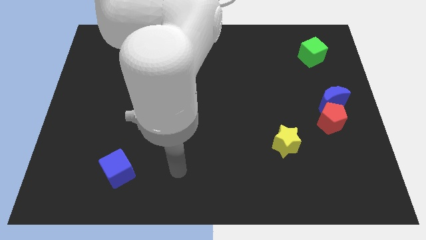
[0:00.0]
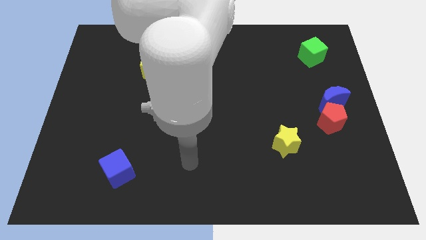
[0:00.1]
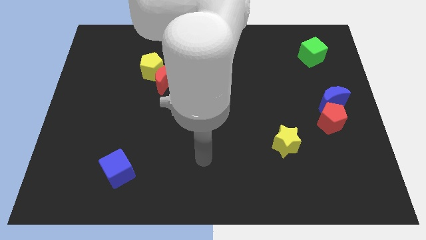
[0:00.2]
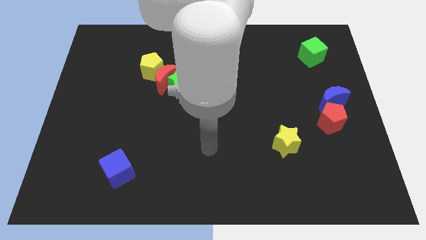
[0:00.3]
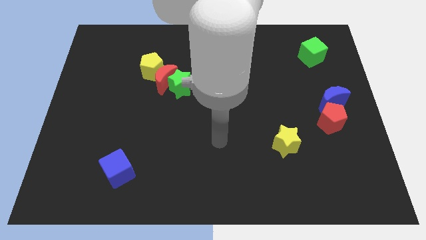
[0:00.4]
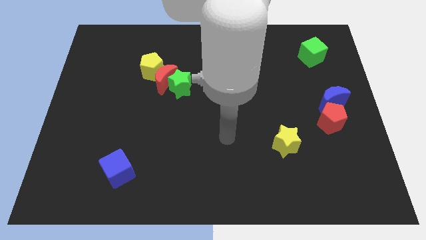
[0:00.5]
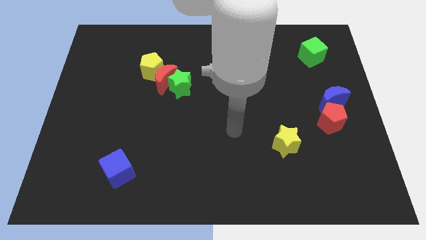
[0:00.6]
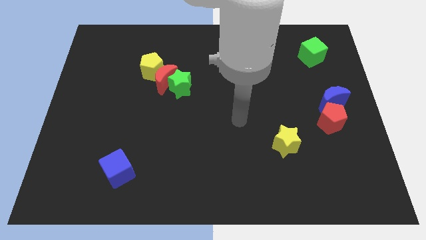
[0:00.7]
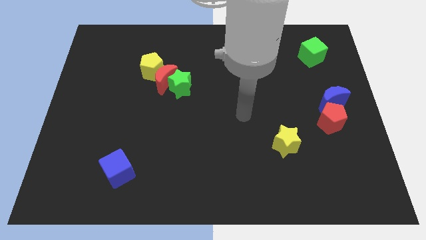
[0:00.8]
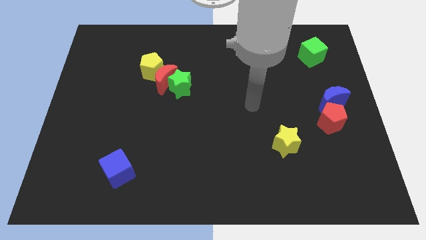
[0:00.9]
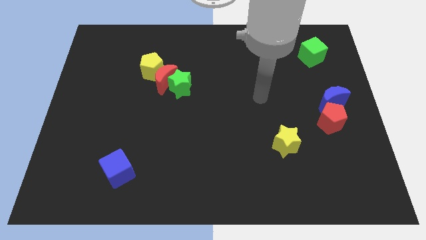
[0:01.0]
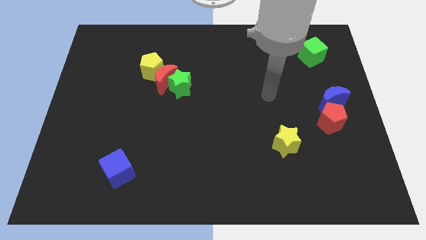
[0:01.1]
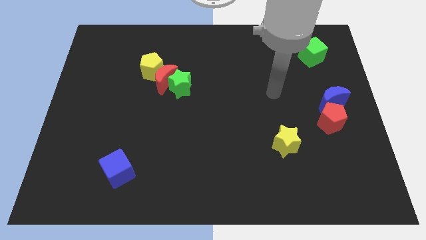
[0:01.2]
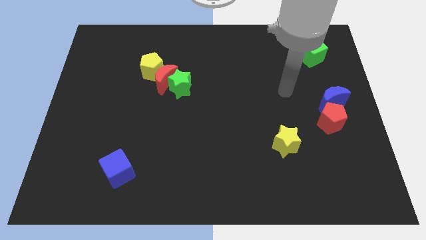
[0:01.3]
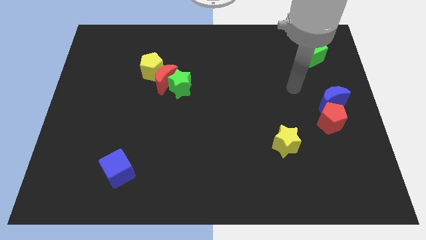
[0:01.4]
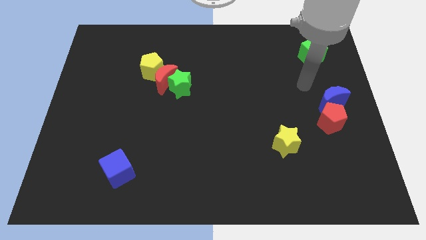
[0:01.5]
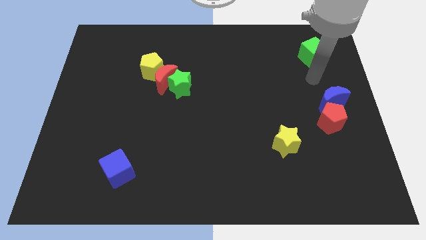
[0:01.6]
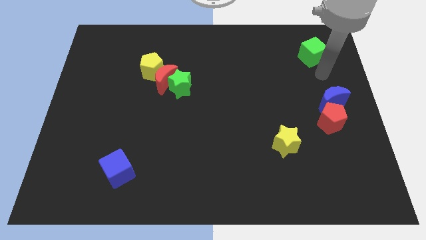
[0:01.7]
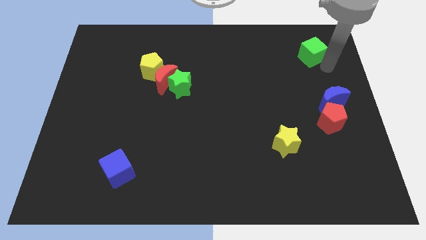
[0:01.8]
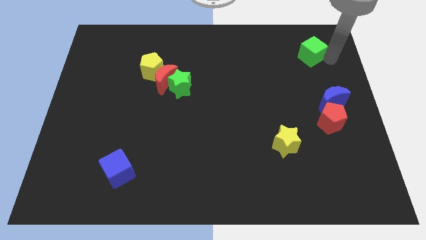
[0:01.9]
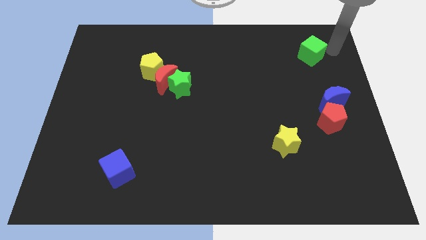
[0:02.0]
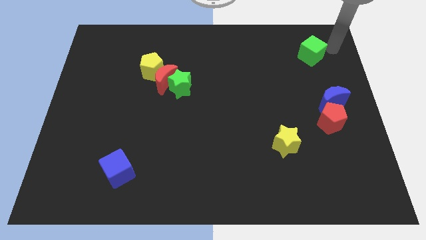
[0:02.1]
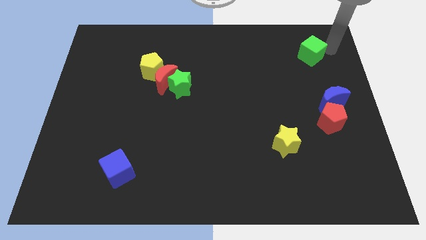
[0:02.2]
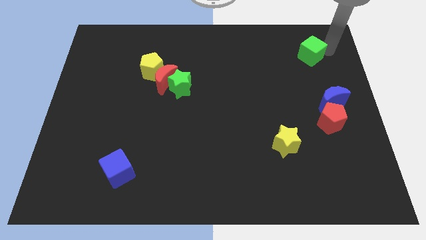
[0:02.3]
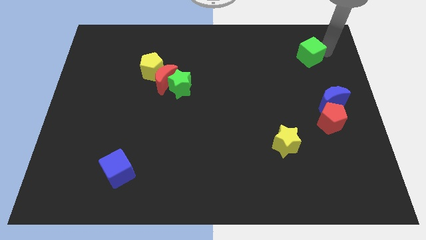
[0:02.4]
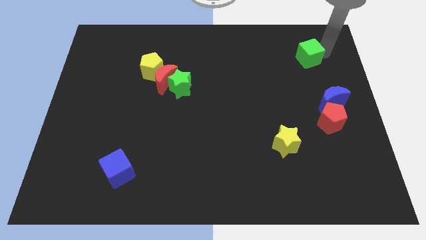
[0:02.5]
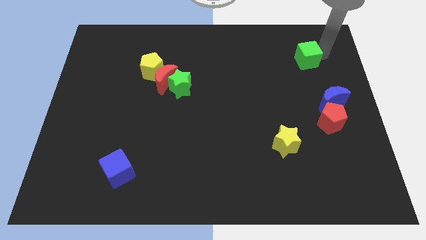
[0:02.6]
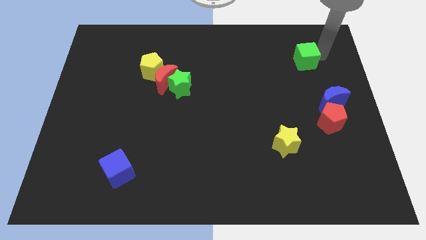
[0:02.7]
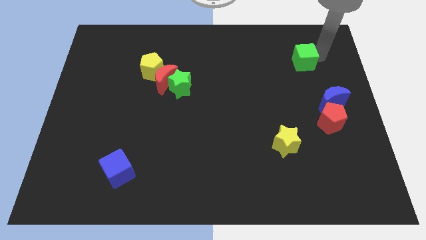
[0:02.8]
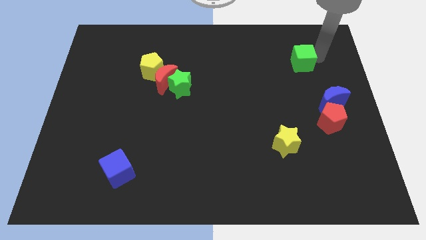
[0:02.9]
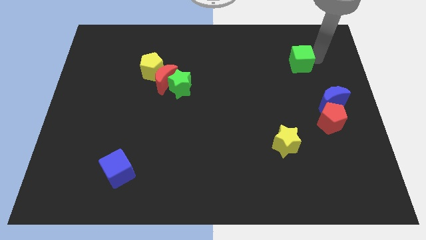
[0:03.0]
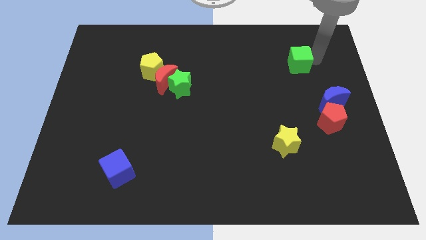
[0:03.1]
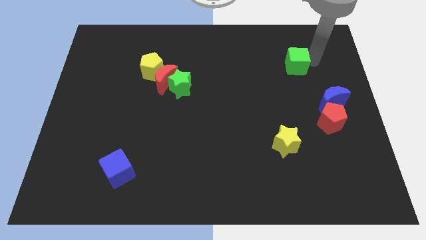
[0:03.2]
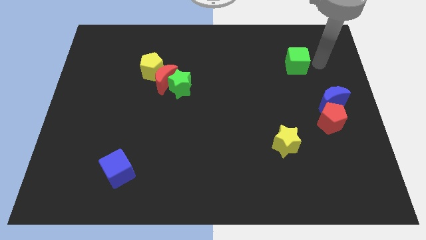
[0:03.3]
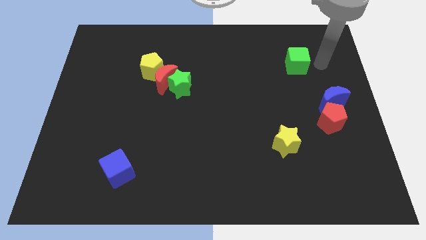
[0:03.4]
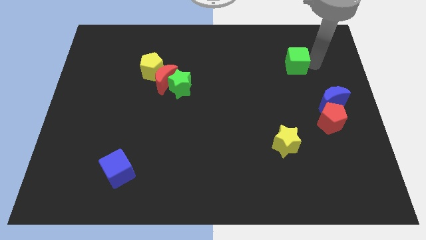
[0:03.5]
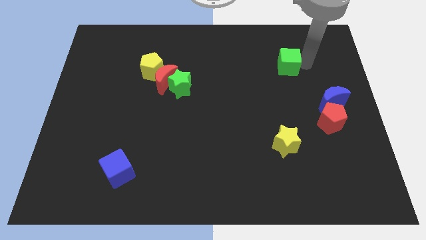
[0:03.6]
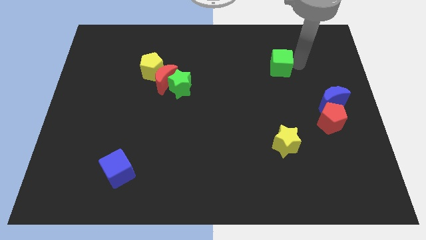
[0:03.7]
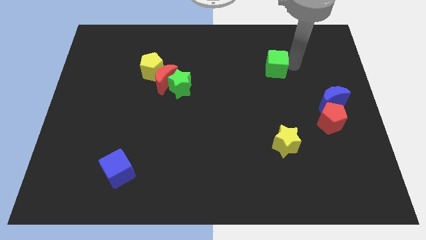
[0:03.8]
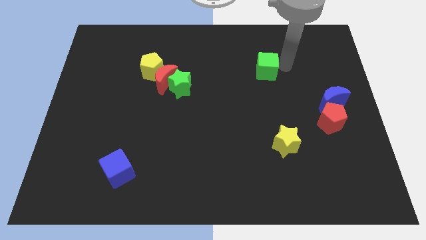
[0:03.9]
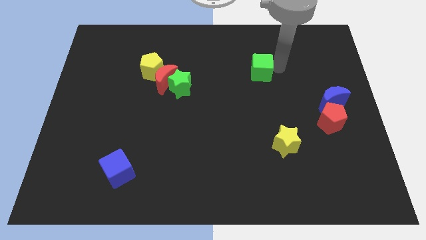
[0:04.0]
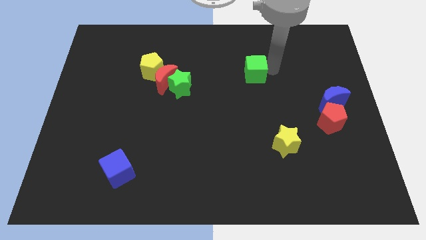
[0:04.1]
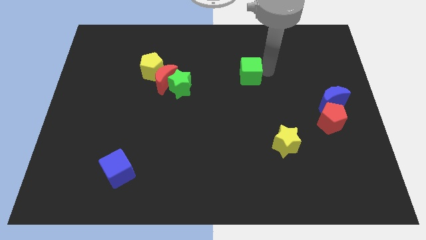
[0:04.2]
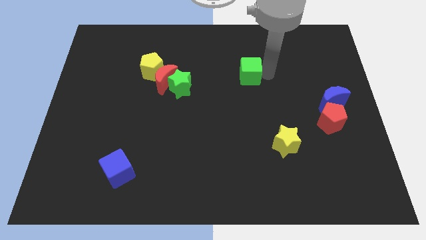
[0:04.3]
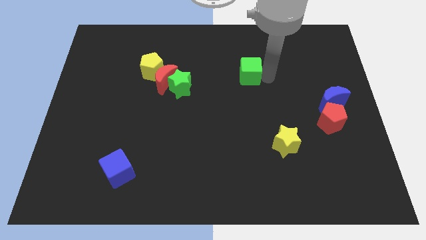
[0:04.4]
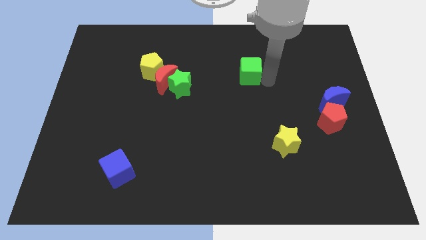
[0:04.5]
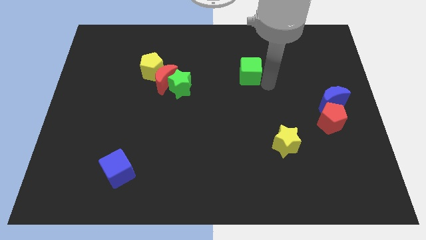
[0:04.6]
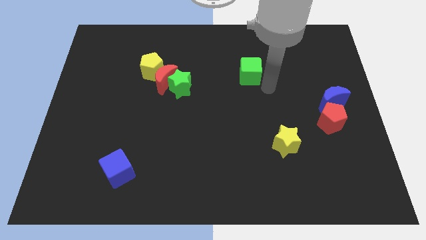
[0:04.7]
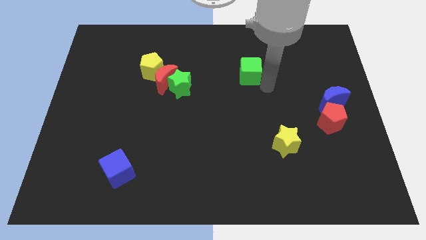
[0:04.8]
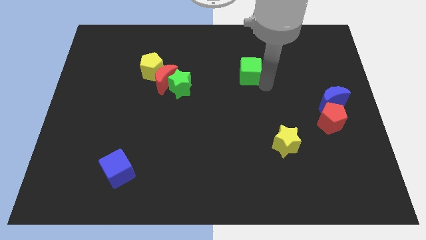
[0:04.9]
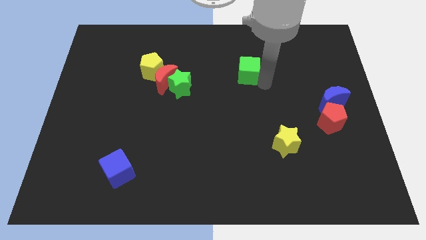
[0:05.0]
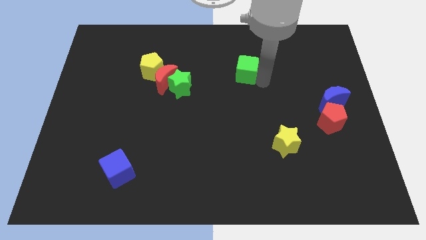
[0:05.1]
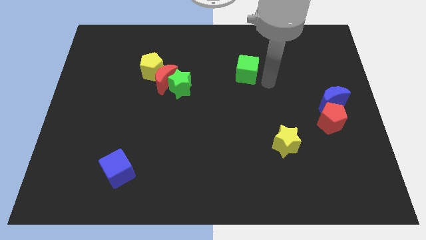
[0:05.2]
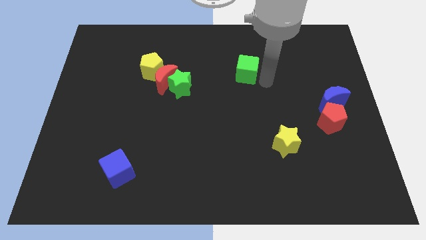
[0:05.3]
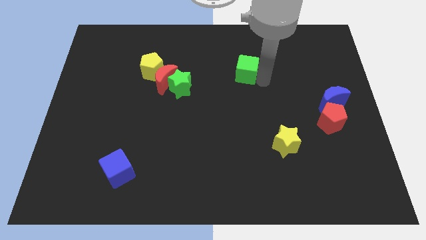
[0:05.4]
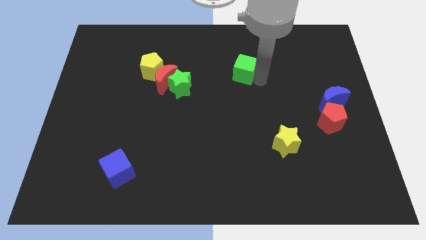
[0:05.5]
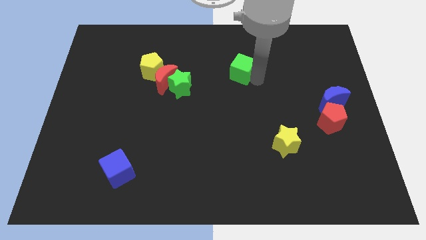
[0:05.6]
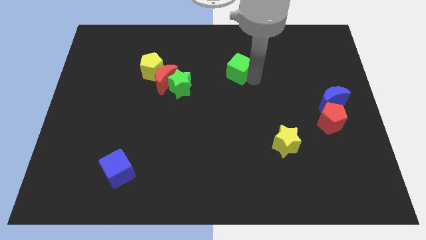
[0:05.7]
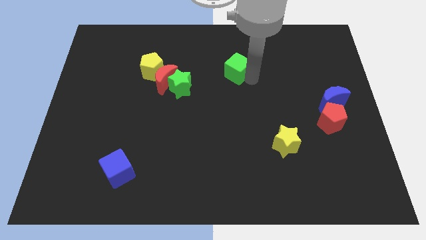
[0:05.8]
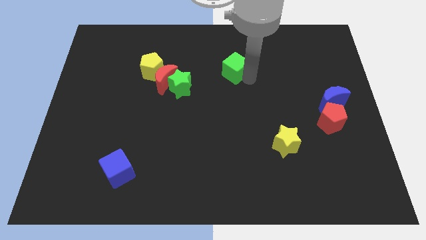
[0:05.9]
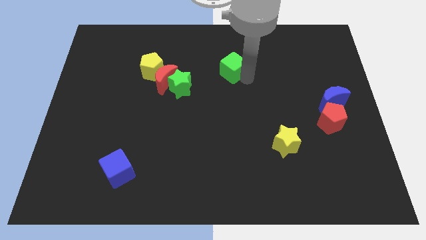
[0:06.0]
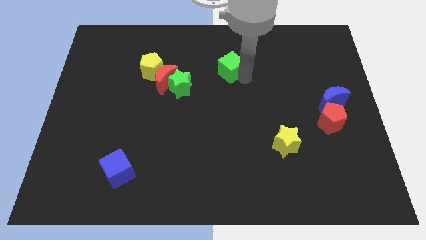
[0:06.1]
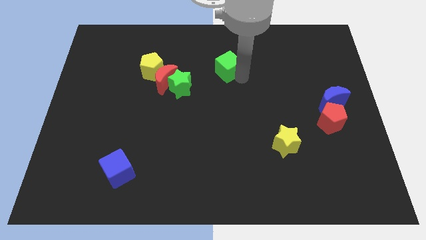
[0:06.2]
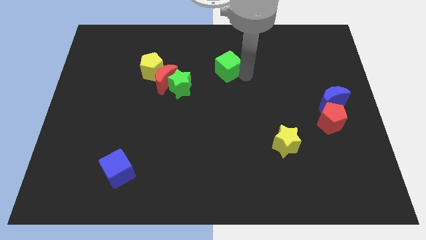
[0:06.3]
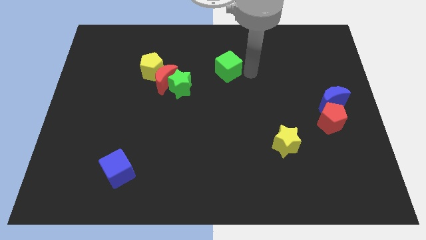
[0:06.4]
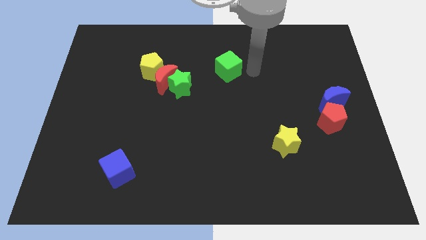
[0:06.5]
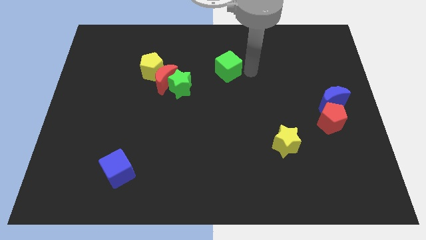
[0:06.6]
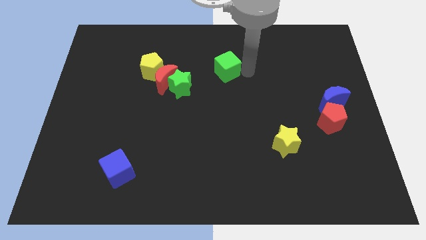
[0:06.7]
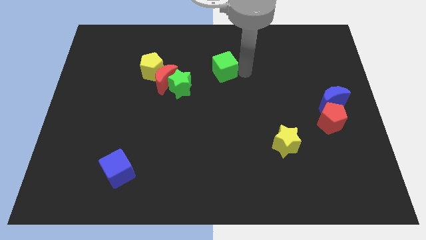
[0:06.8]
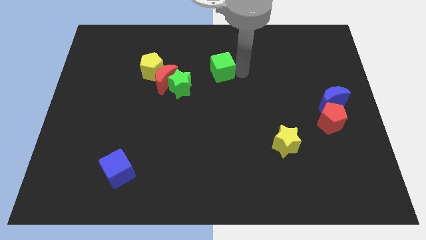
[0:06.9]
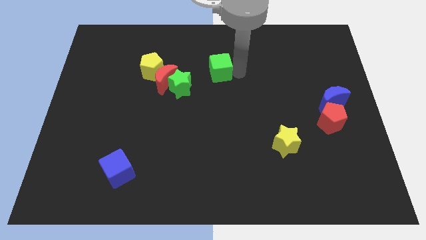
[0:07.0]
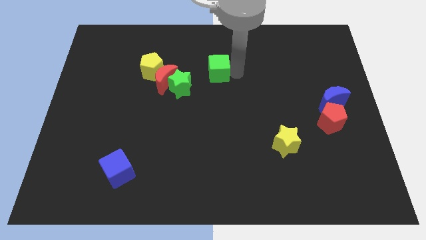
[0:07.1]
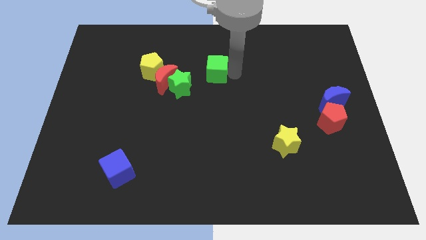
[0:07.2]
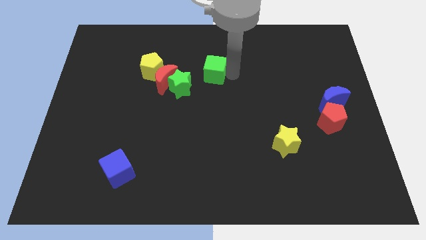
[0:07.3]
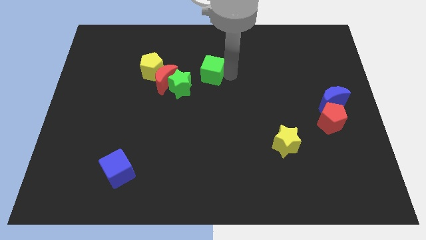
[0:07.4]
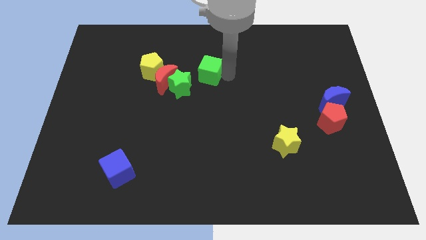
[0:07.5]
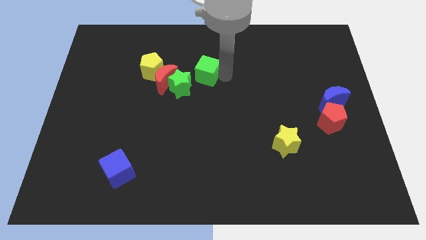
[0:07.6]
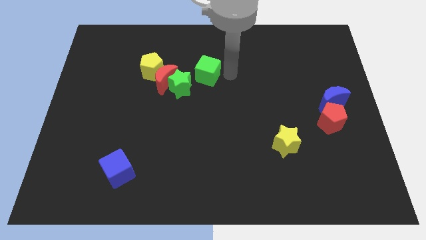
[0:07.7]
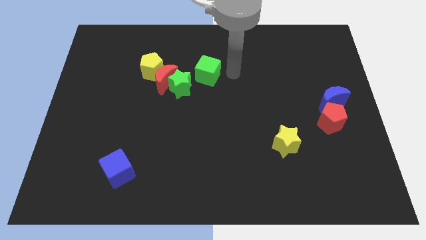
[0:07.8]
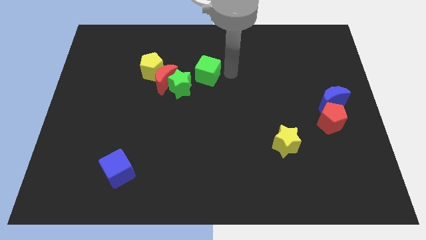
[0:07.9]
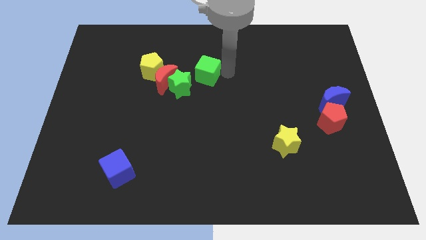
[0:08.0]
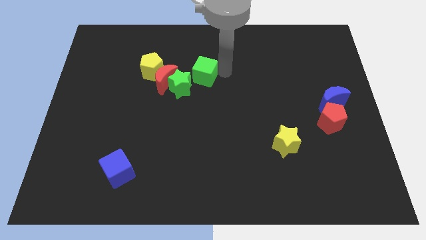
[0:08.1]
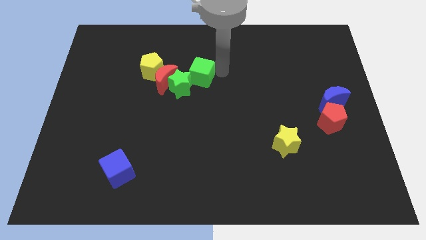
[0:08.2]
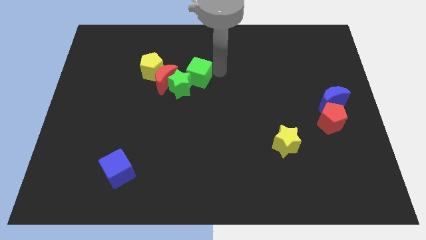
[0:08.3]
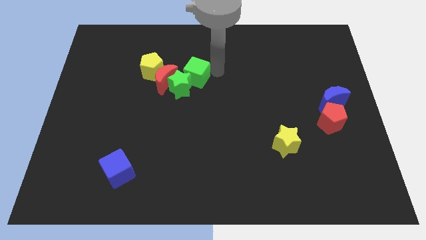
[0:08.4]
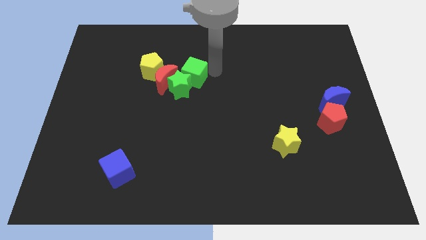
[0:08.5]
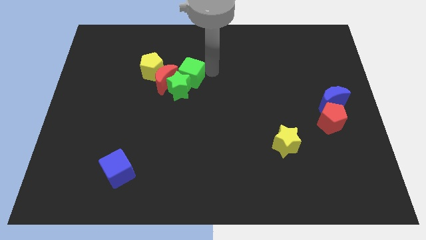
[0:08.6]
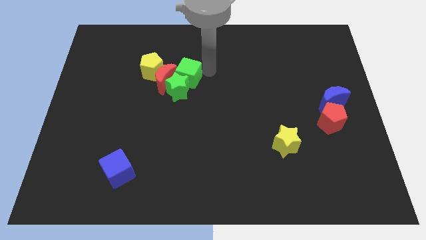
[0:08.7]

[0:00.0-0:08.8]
move the green cube towards the red moon
